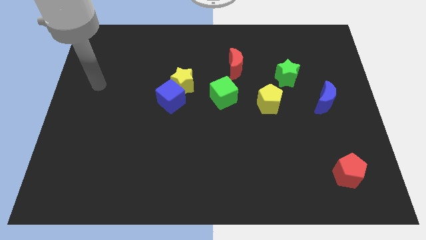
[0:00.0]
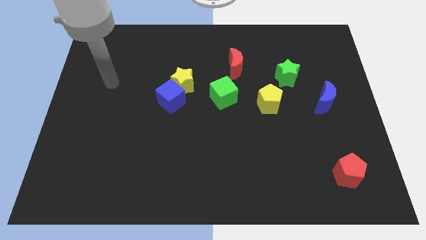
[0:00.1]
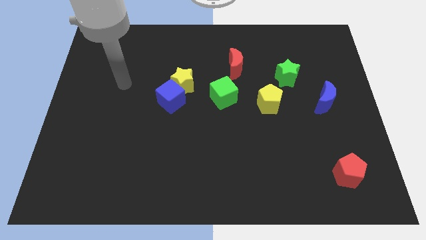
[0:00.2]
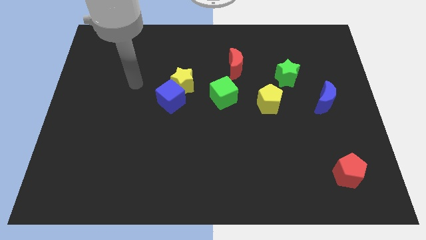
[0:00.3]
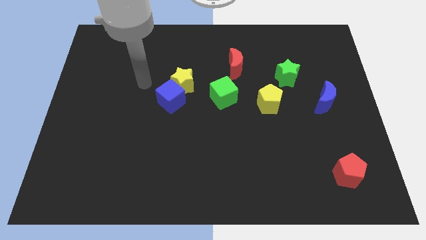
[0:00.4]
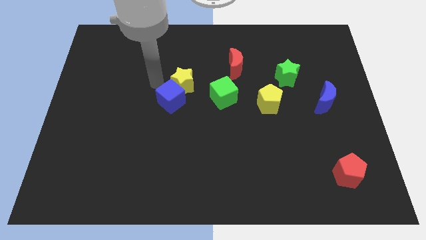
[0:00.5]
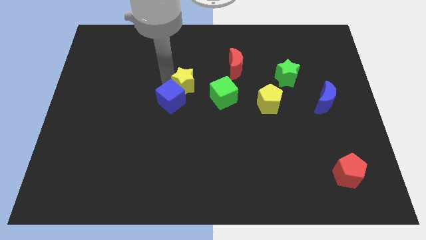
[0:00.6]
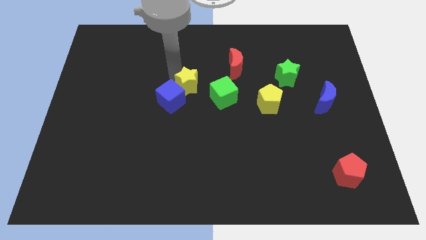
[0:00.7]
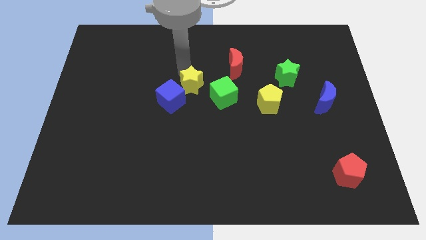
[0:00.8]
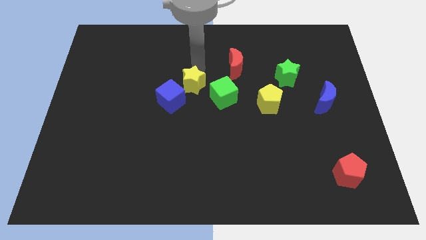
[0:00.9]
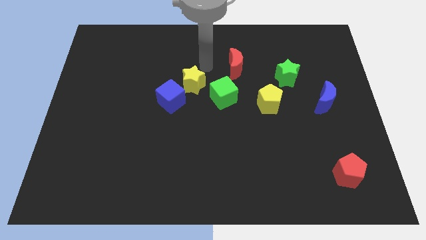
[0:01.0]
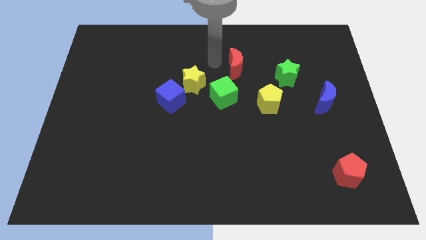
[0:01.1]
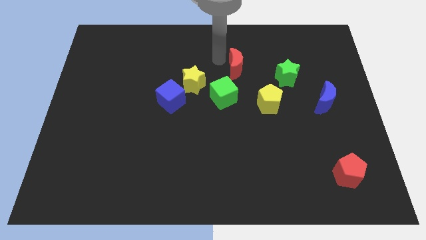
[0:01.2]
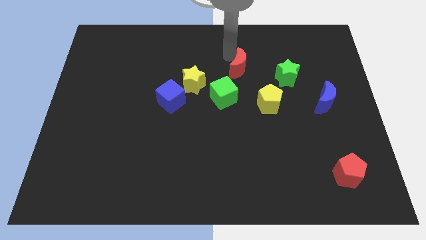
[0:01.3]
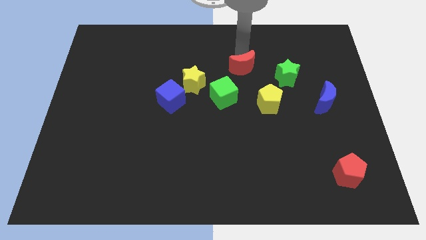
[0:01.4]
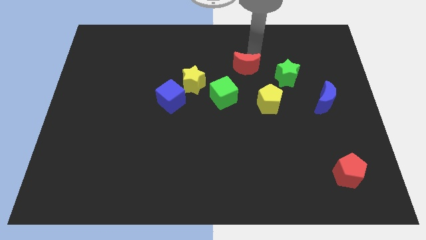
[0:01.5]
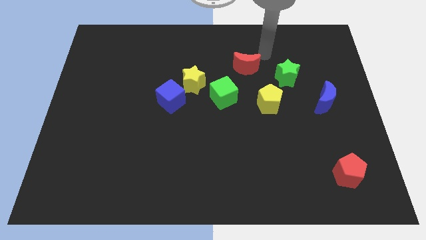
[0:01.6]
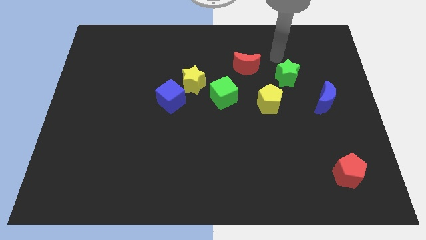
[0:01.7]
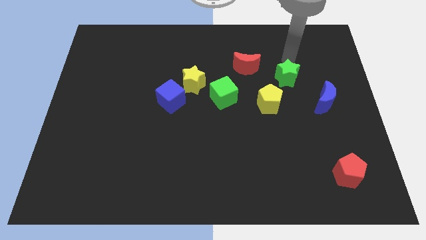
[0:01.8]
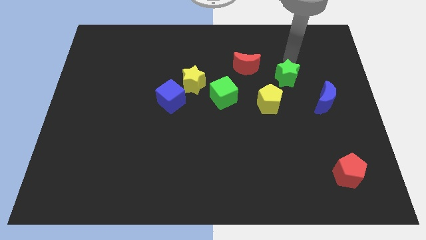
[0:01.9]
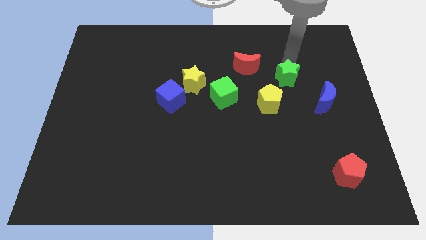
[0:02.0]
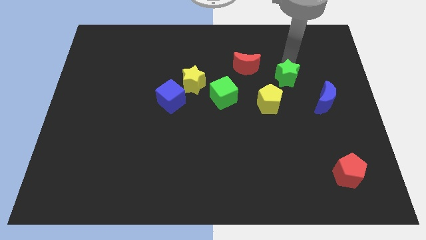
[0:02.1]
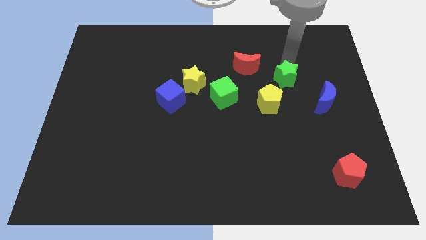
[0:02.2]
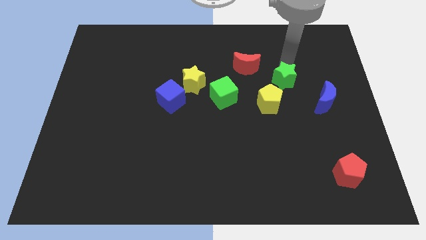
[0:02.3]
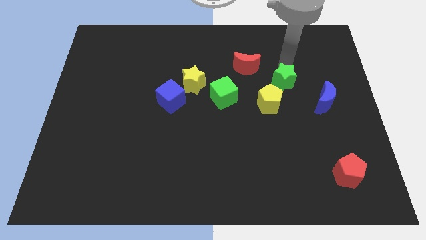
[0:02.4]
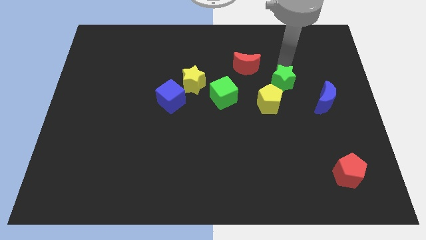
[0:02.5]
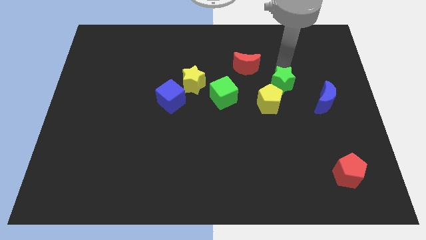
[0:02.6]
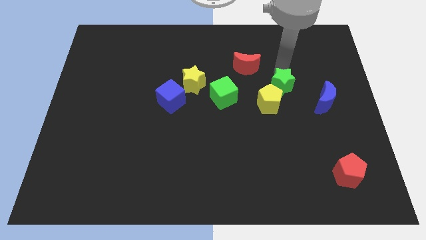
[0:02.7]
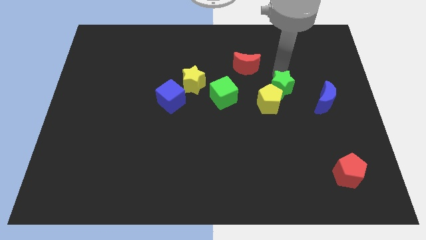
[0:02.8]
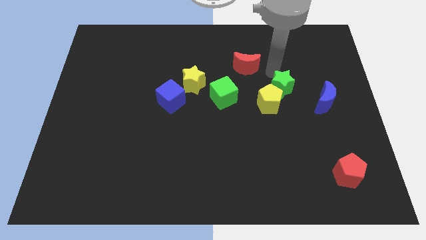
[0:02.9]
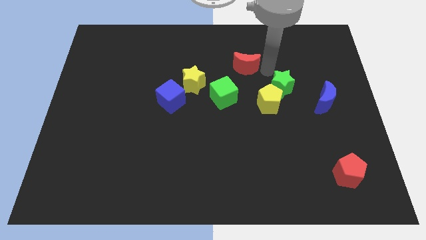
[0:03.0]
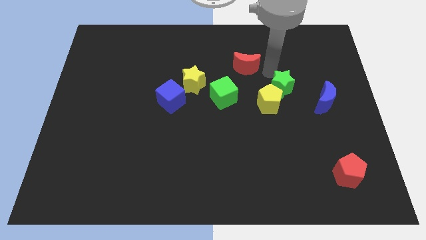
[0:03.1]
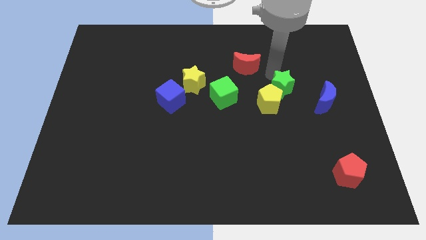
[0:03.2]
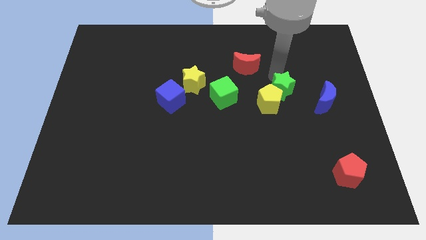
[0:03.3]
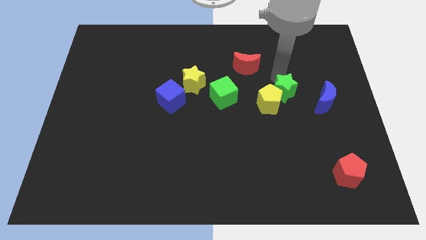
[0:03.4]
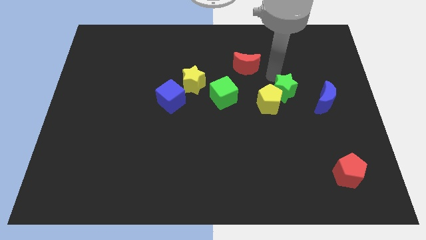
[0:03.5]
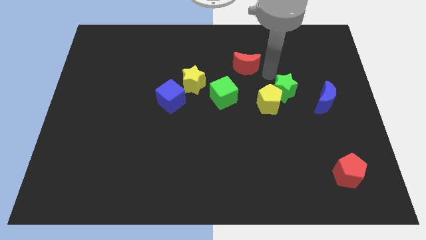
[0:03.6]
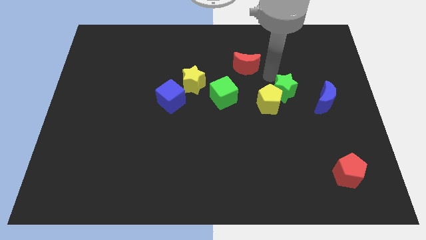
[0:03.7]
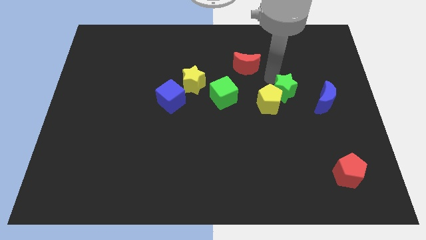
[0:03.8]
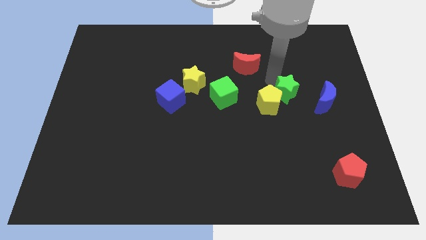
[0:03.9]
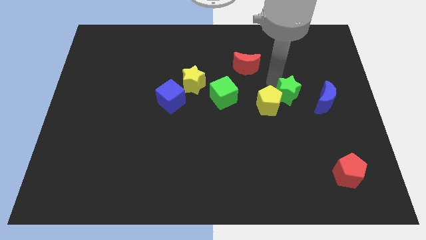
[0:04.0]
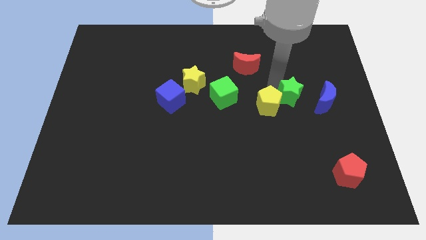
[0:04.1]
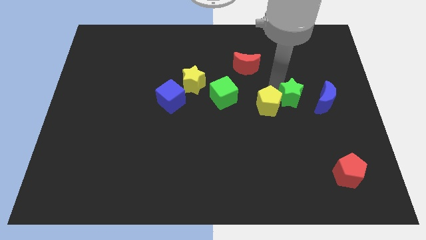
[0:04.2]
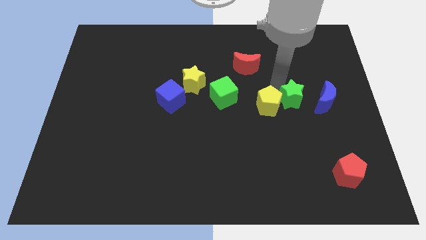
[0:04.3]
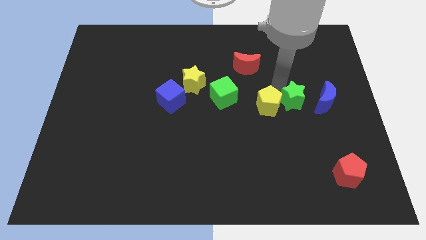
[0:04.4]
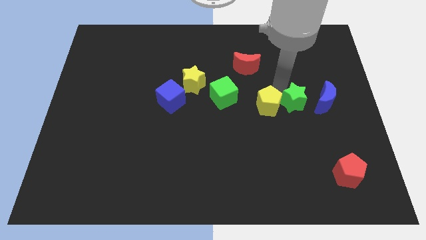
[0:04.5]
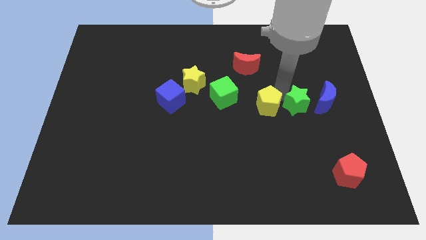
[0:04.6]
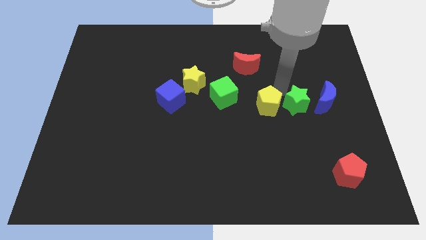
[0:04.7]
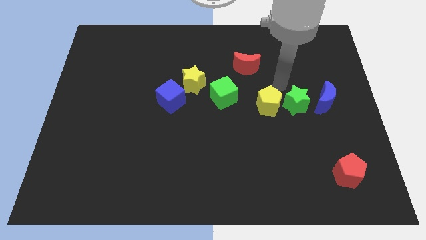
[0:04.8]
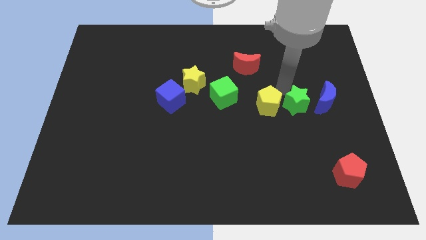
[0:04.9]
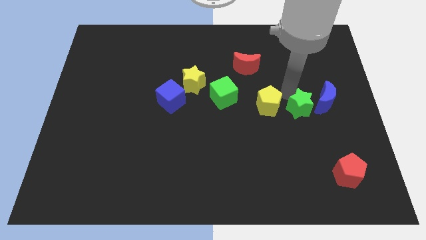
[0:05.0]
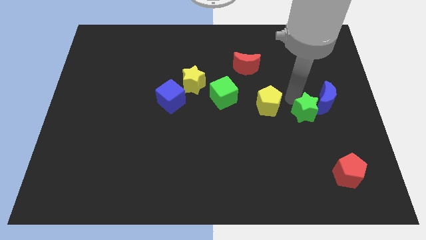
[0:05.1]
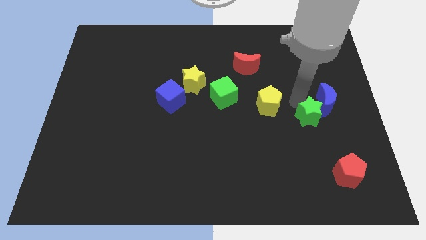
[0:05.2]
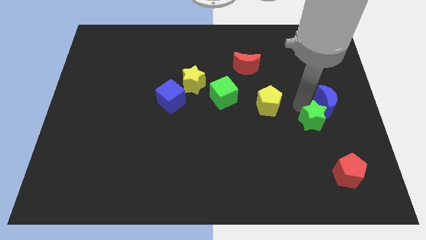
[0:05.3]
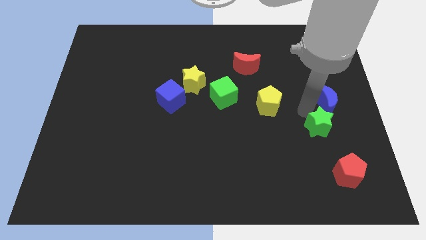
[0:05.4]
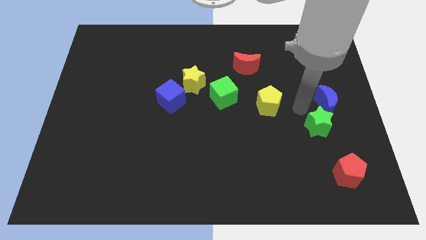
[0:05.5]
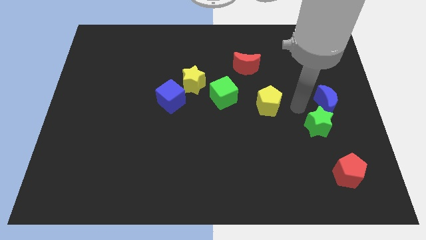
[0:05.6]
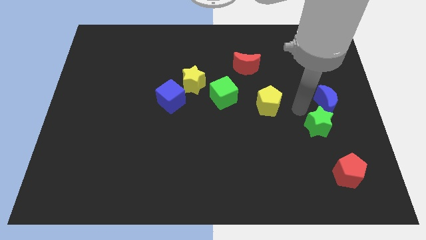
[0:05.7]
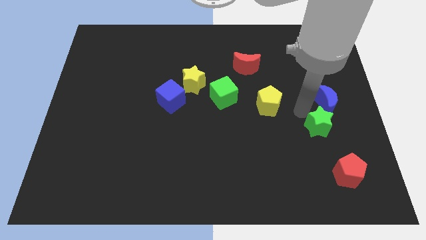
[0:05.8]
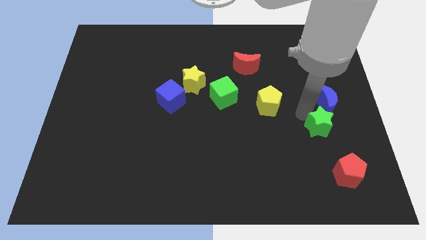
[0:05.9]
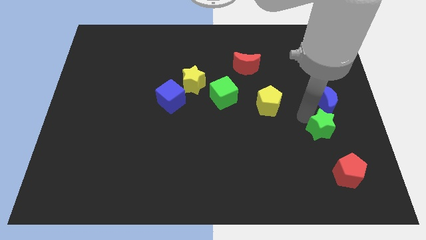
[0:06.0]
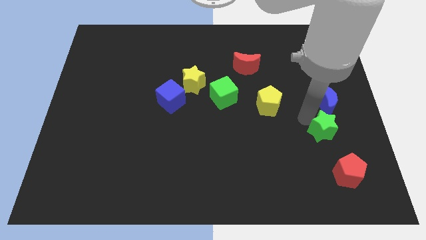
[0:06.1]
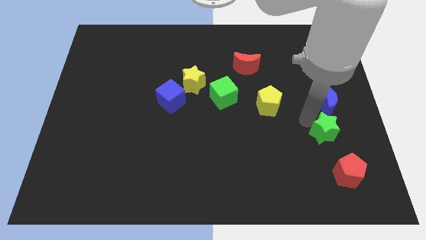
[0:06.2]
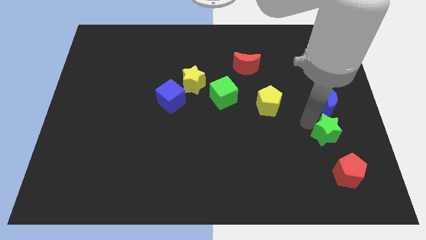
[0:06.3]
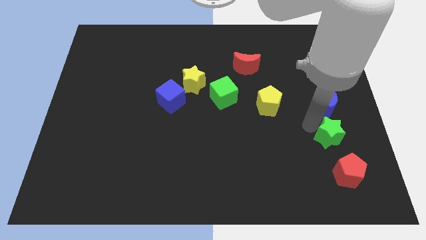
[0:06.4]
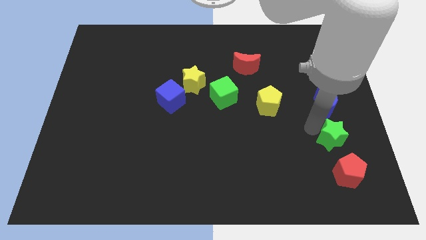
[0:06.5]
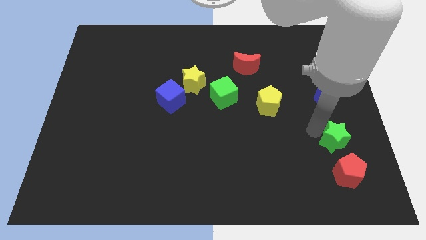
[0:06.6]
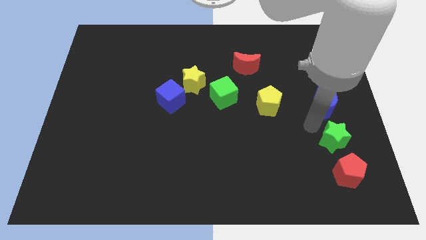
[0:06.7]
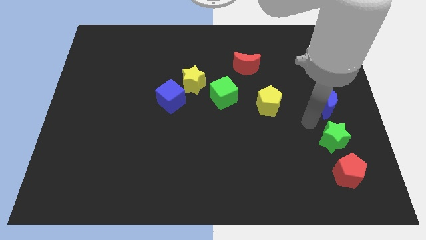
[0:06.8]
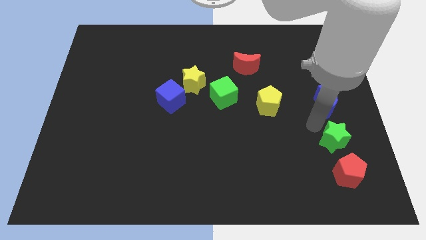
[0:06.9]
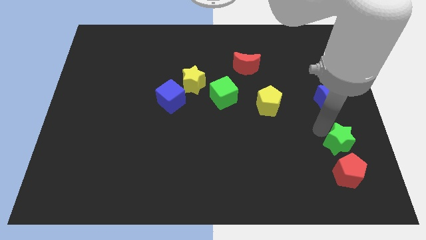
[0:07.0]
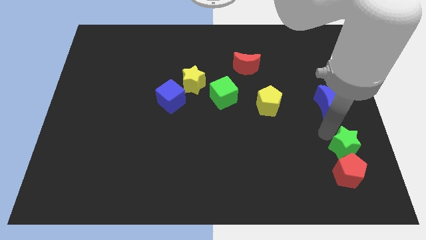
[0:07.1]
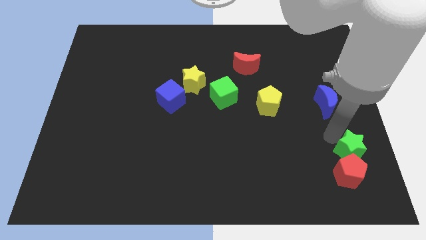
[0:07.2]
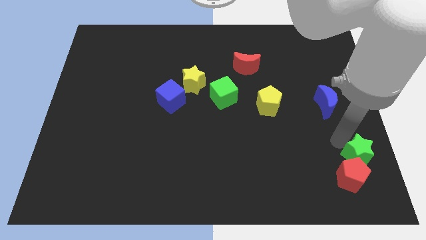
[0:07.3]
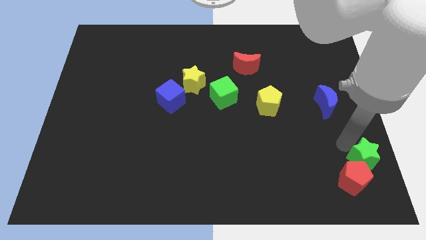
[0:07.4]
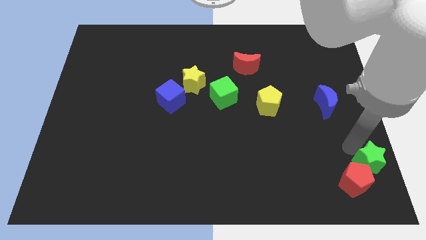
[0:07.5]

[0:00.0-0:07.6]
push the green star to the bottom right
